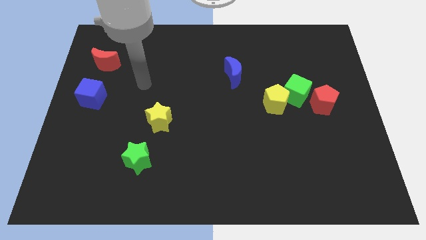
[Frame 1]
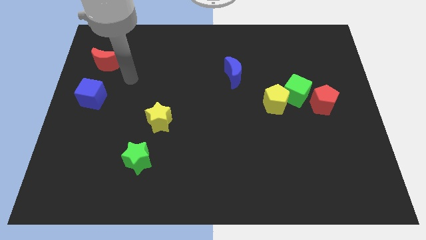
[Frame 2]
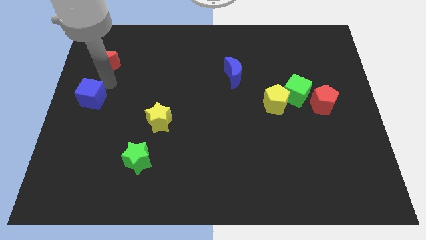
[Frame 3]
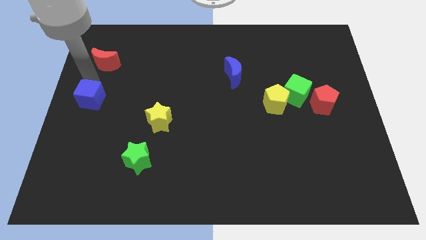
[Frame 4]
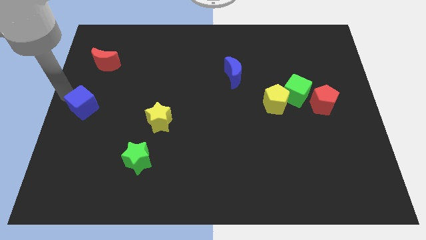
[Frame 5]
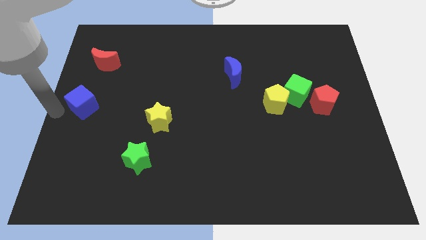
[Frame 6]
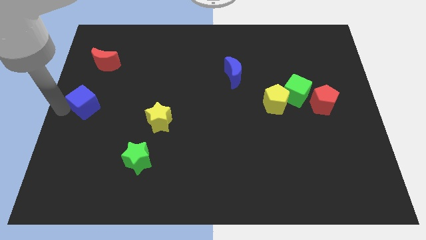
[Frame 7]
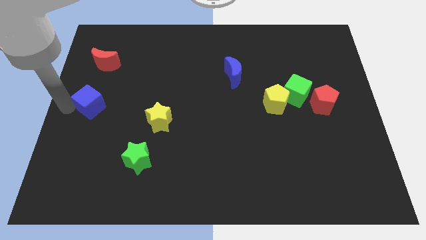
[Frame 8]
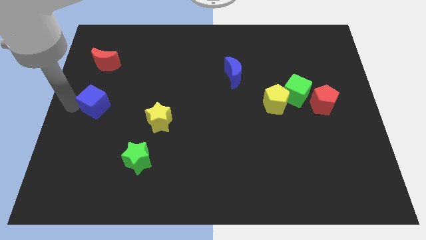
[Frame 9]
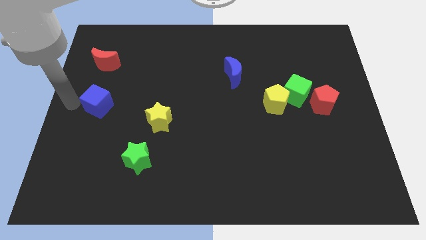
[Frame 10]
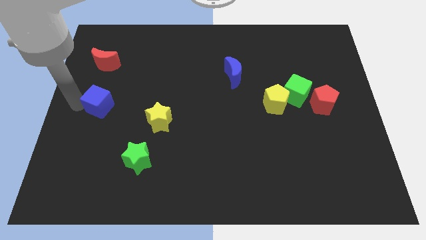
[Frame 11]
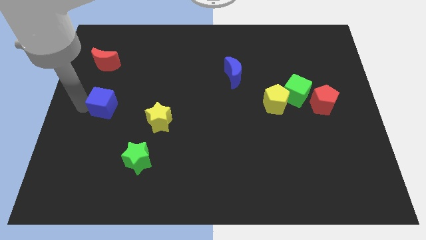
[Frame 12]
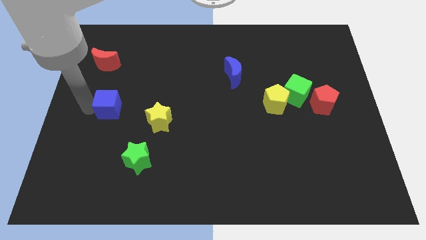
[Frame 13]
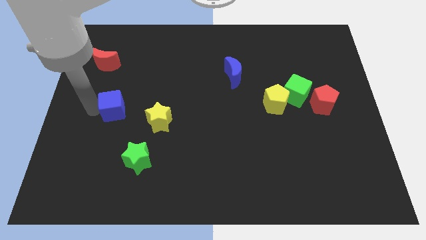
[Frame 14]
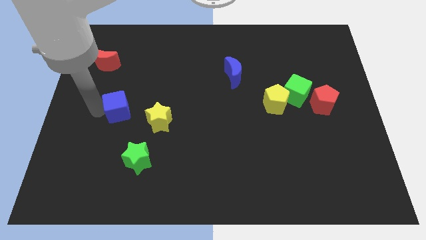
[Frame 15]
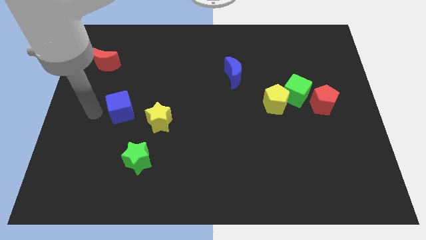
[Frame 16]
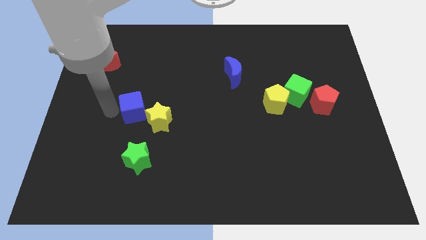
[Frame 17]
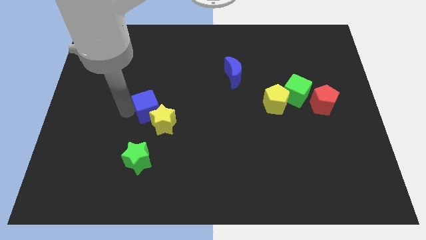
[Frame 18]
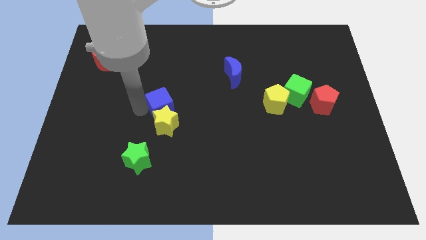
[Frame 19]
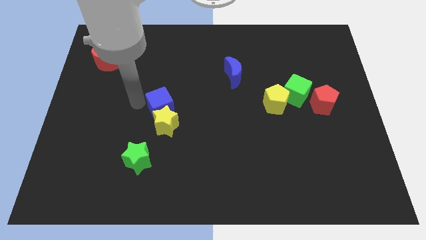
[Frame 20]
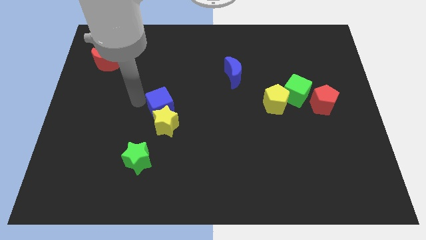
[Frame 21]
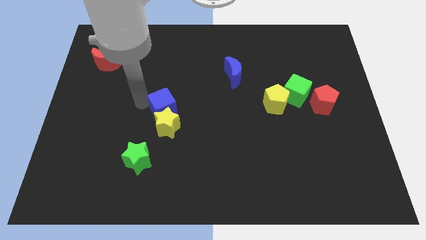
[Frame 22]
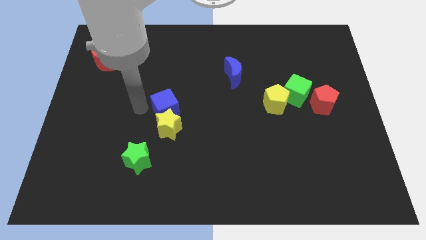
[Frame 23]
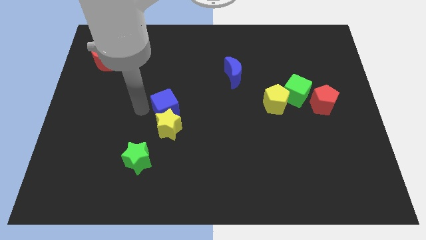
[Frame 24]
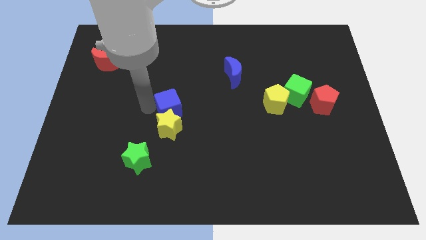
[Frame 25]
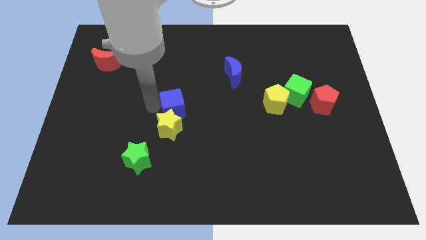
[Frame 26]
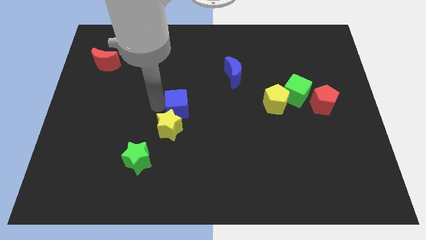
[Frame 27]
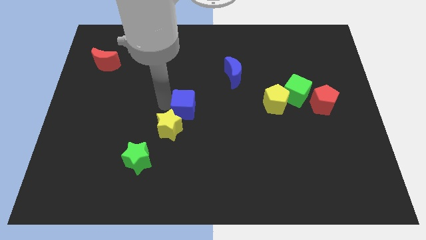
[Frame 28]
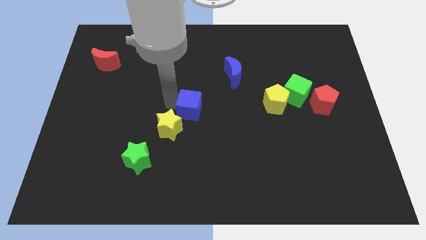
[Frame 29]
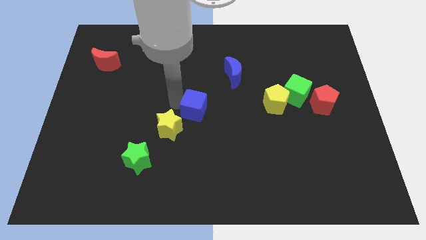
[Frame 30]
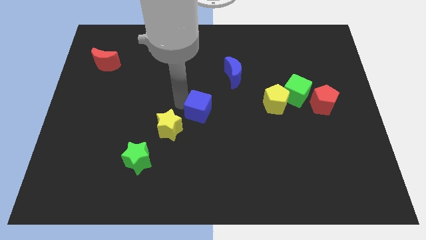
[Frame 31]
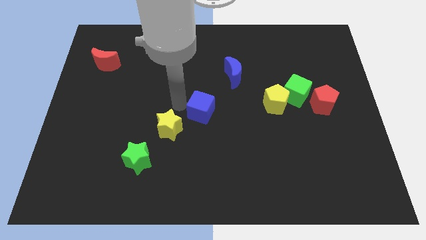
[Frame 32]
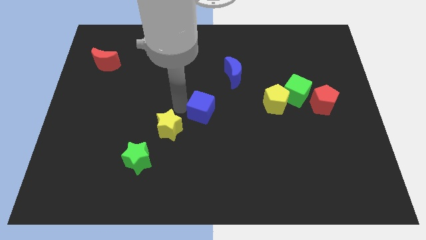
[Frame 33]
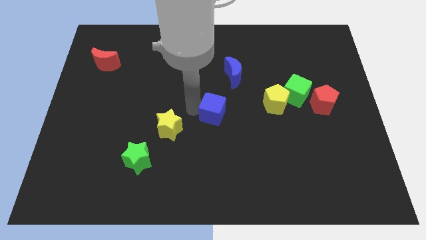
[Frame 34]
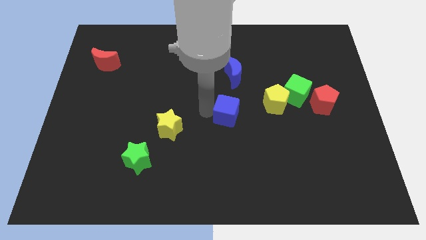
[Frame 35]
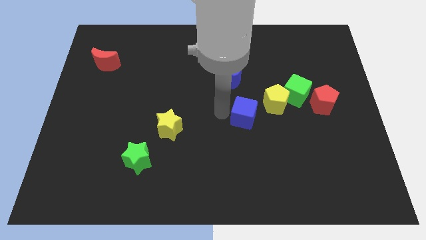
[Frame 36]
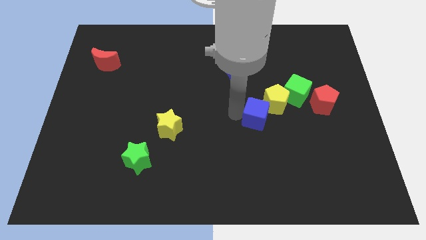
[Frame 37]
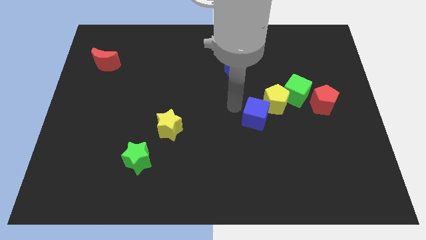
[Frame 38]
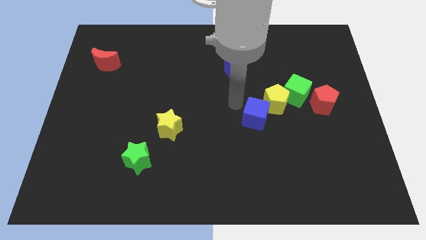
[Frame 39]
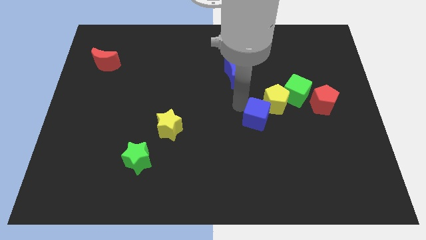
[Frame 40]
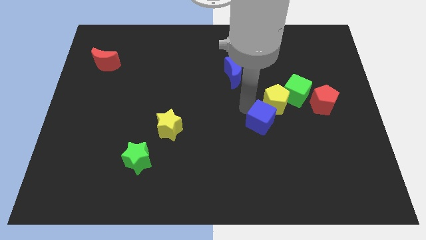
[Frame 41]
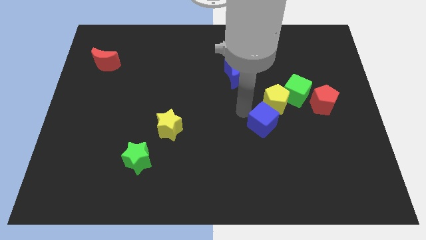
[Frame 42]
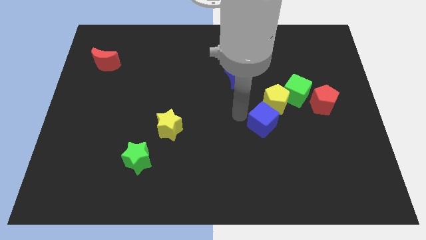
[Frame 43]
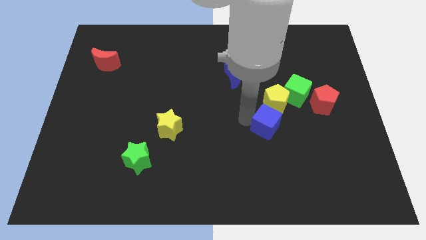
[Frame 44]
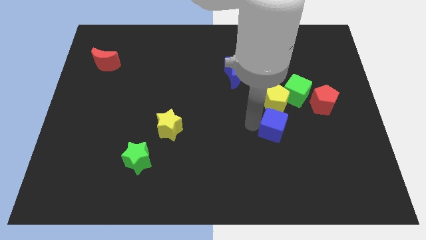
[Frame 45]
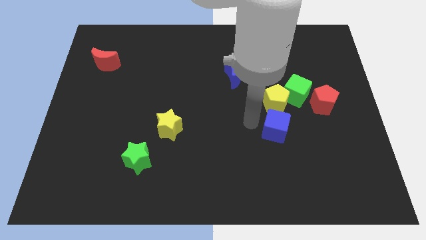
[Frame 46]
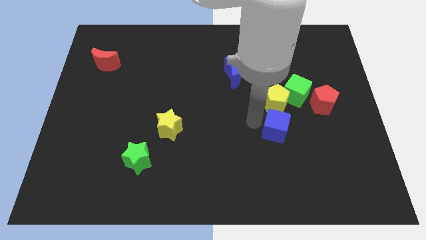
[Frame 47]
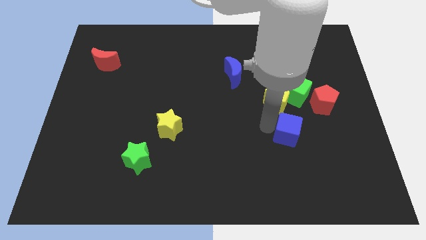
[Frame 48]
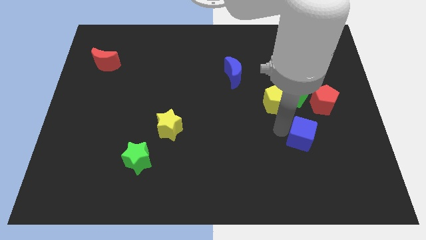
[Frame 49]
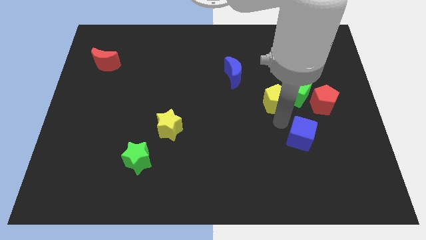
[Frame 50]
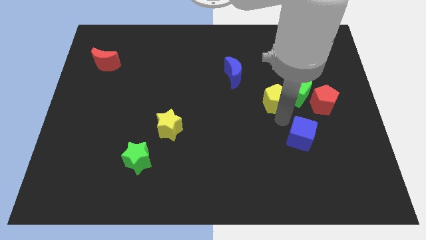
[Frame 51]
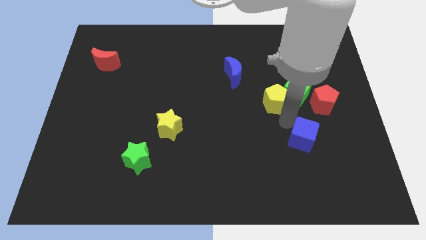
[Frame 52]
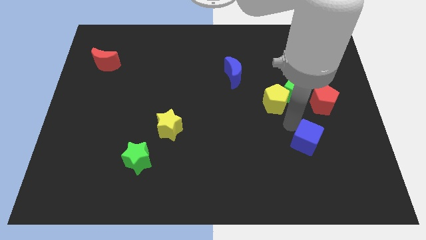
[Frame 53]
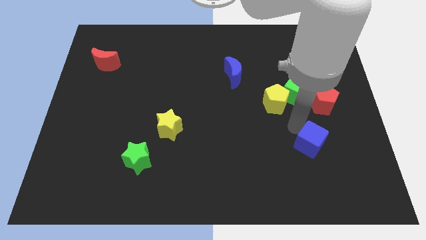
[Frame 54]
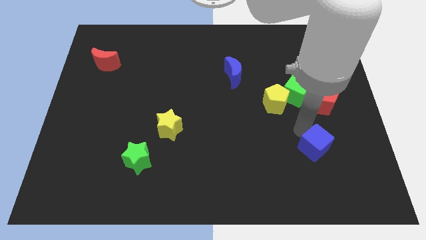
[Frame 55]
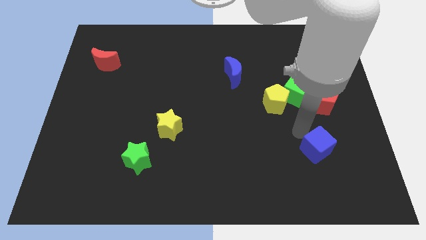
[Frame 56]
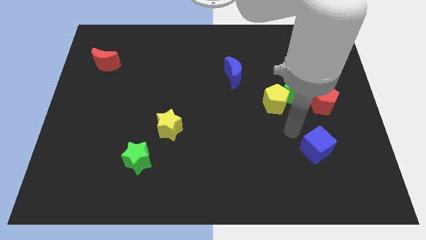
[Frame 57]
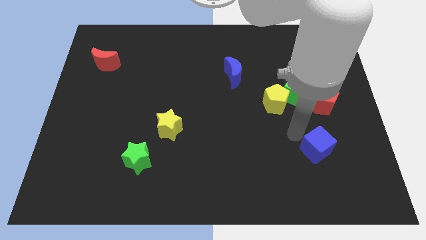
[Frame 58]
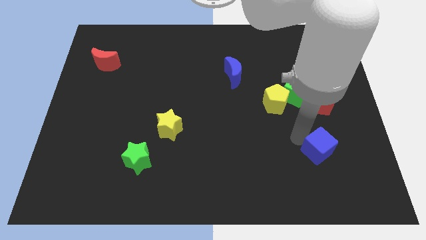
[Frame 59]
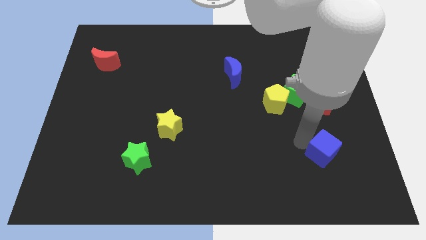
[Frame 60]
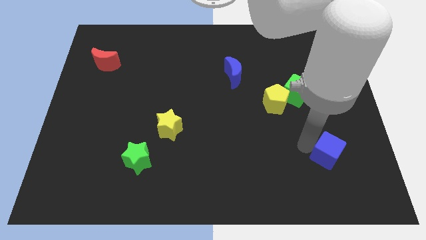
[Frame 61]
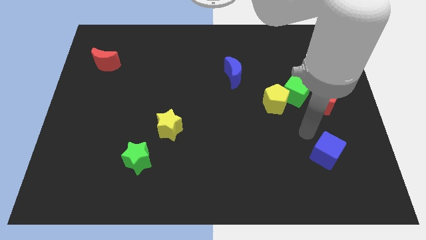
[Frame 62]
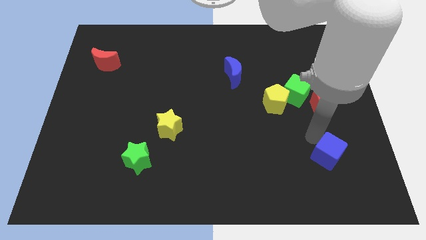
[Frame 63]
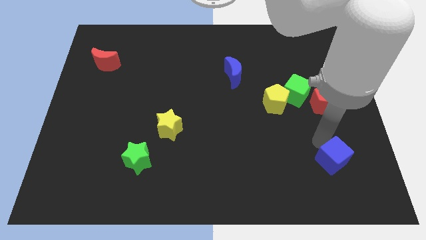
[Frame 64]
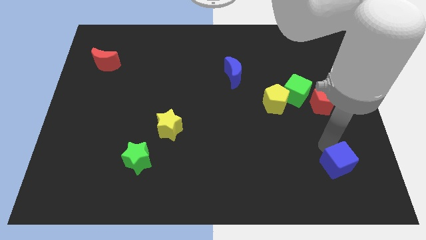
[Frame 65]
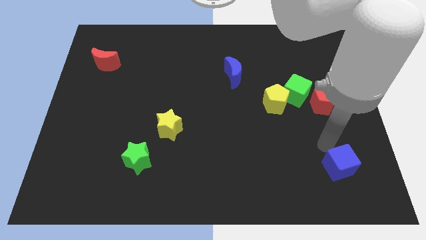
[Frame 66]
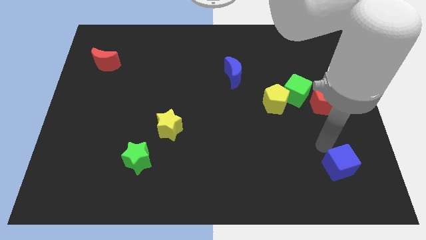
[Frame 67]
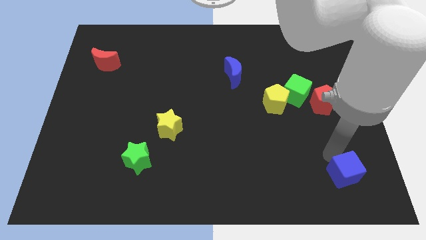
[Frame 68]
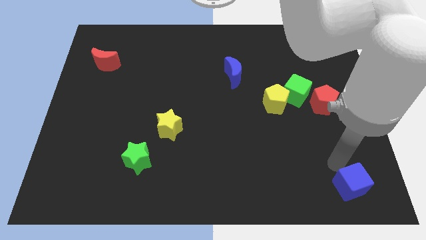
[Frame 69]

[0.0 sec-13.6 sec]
push the blue cube to the bottom right
